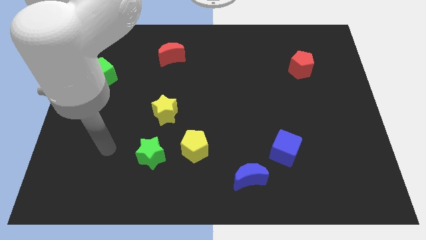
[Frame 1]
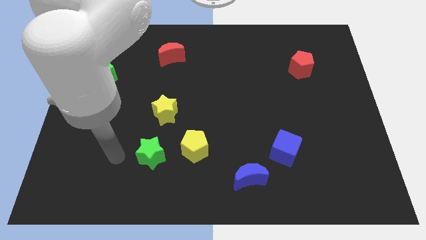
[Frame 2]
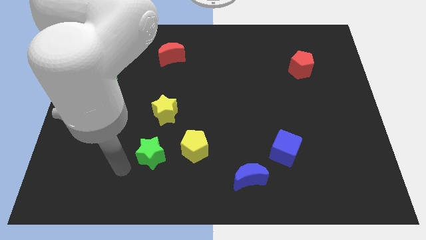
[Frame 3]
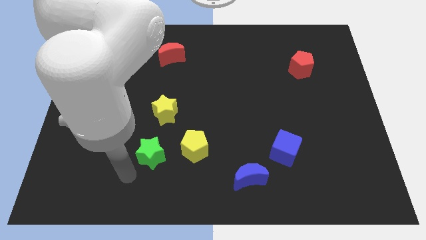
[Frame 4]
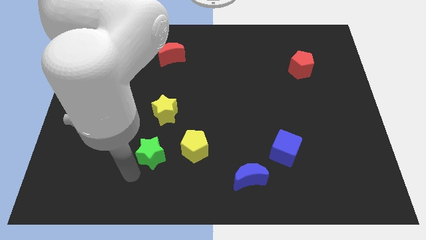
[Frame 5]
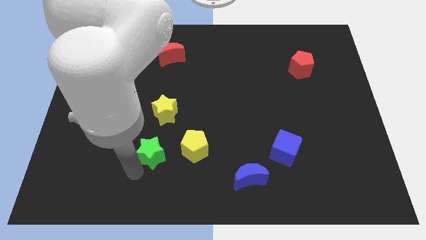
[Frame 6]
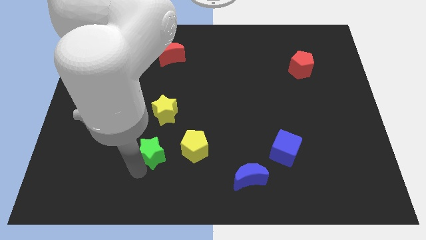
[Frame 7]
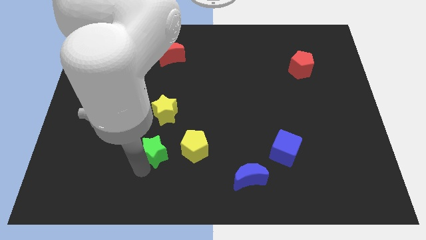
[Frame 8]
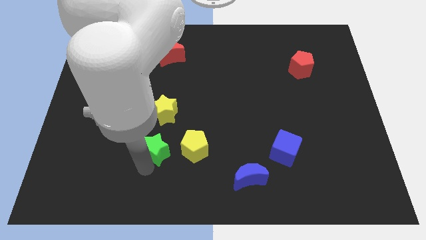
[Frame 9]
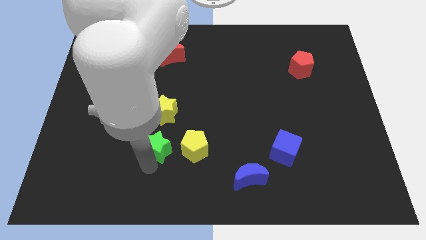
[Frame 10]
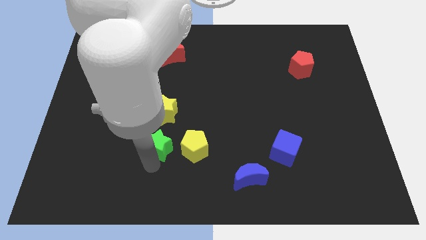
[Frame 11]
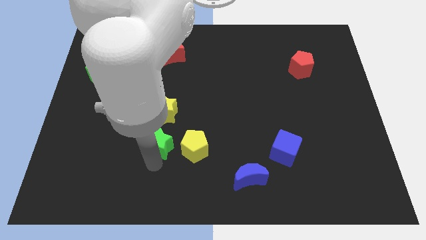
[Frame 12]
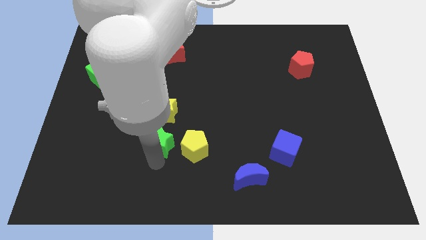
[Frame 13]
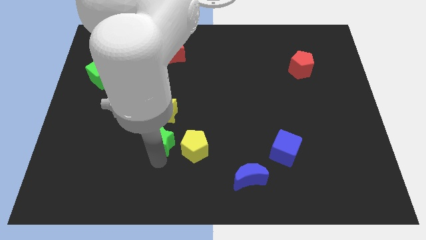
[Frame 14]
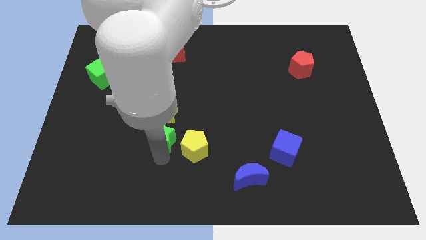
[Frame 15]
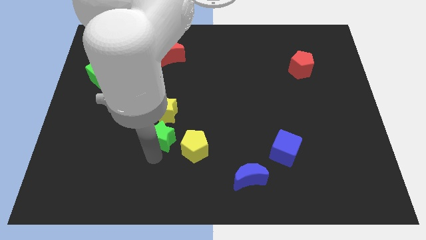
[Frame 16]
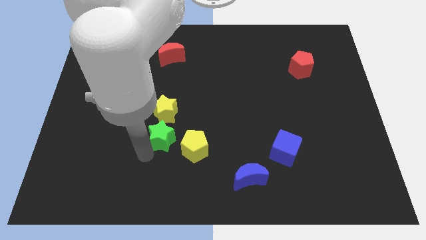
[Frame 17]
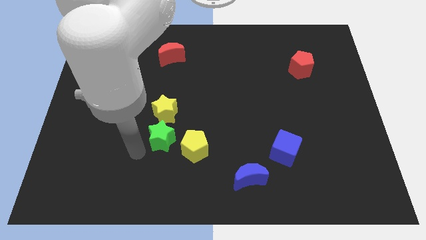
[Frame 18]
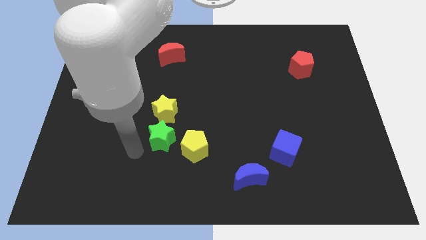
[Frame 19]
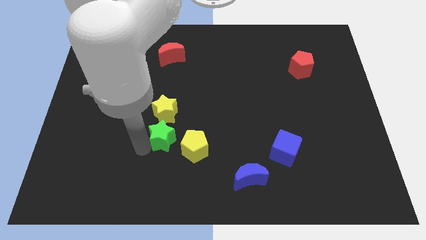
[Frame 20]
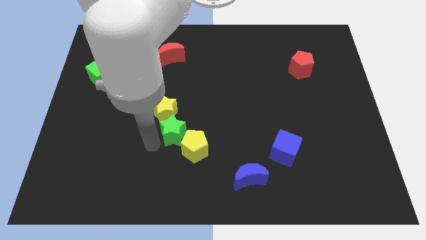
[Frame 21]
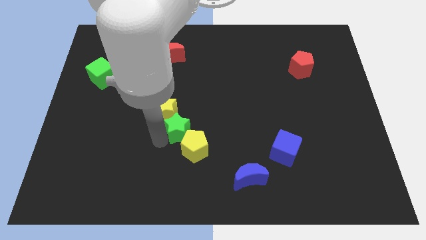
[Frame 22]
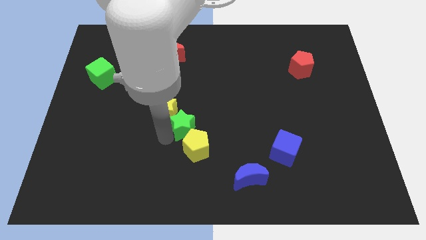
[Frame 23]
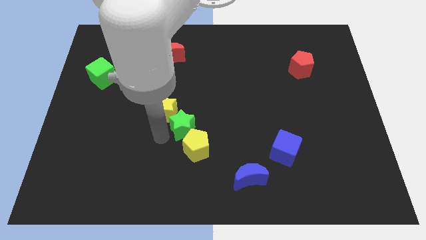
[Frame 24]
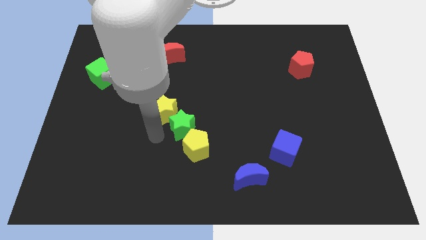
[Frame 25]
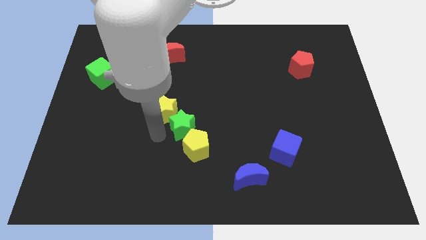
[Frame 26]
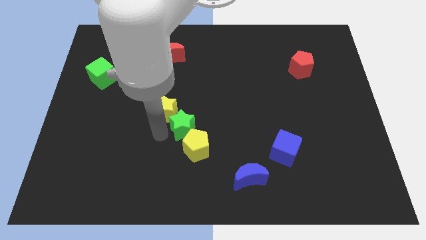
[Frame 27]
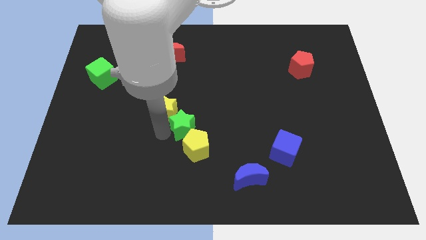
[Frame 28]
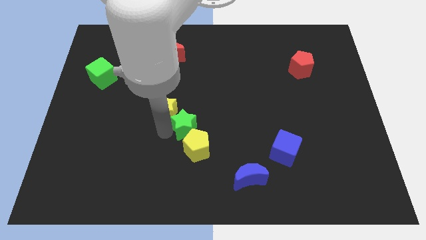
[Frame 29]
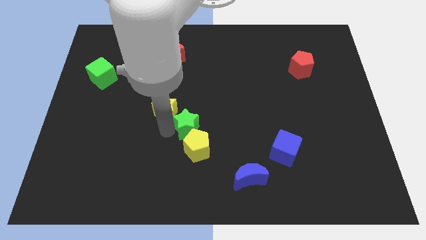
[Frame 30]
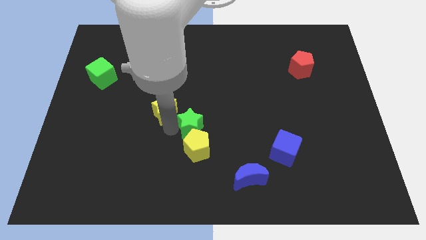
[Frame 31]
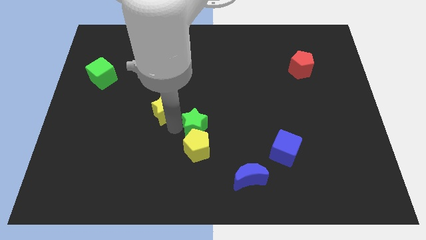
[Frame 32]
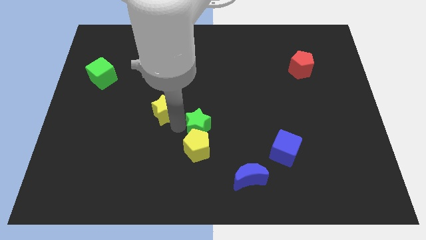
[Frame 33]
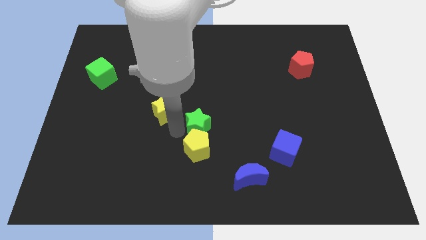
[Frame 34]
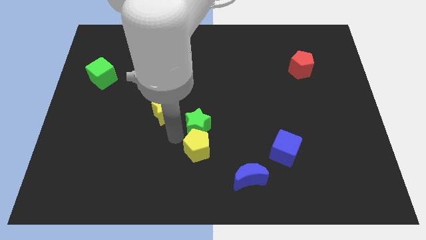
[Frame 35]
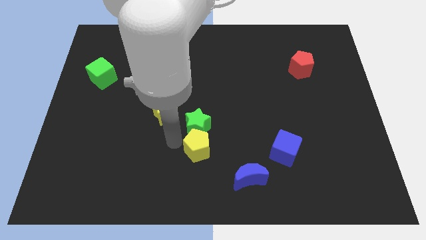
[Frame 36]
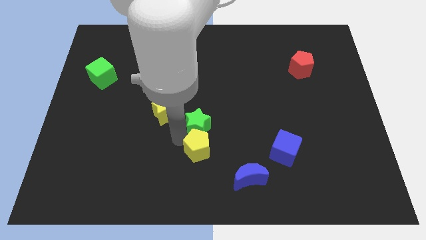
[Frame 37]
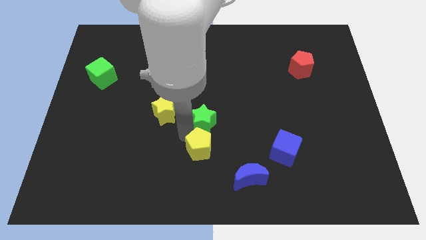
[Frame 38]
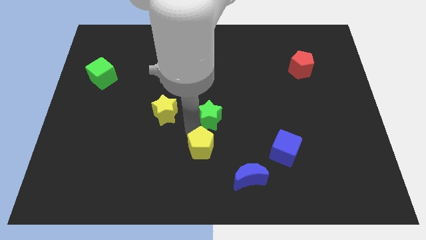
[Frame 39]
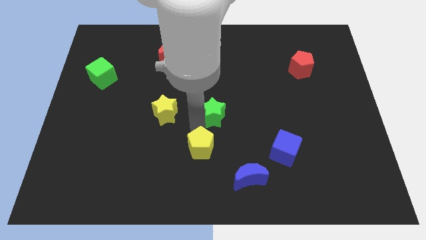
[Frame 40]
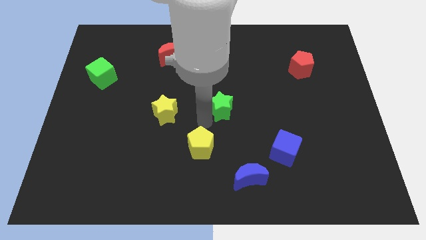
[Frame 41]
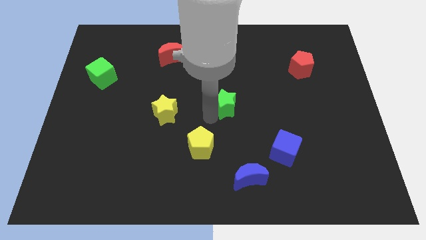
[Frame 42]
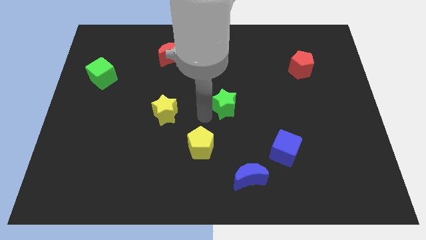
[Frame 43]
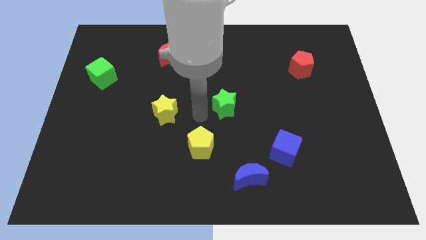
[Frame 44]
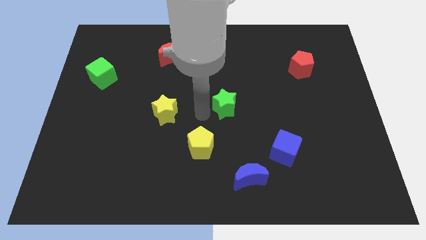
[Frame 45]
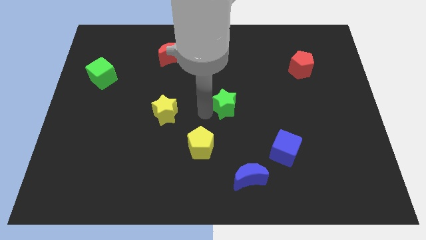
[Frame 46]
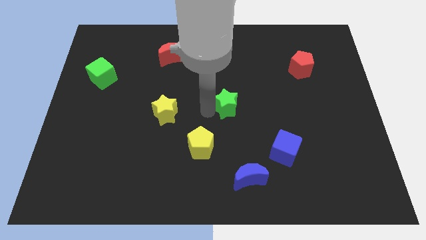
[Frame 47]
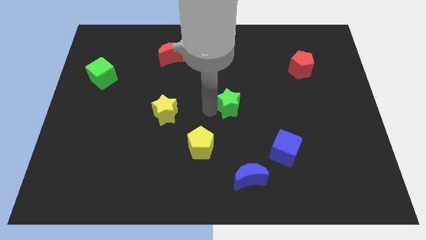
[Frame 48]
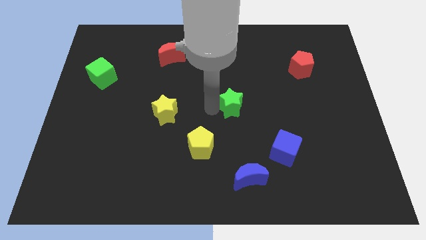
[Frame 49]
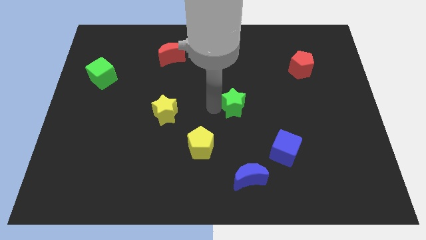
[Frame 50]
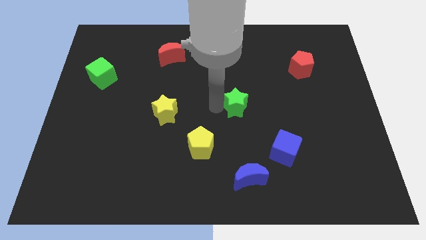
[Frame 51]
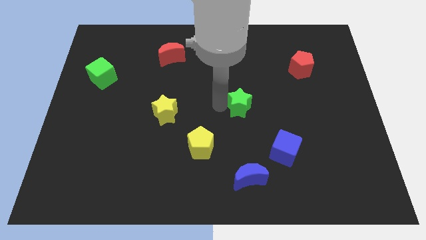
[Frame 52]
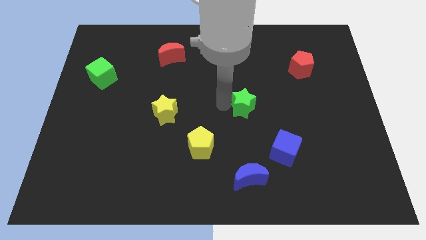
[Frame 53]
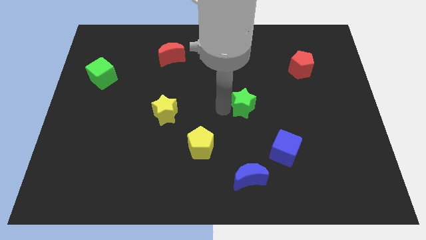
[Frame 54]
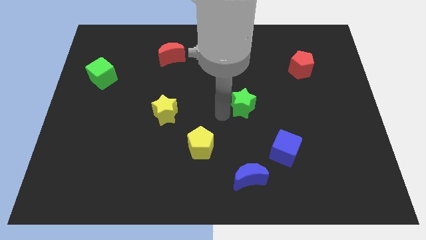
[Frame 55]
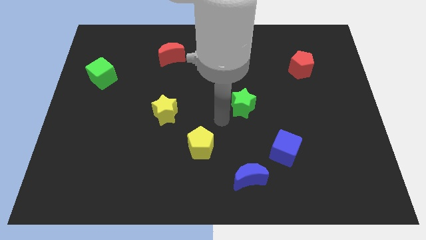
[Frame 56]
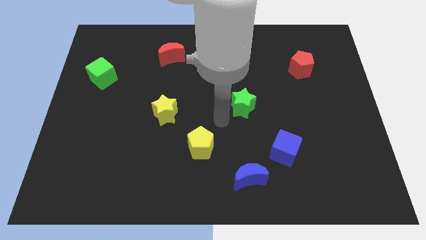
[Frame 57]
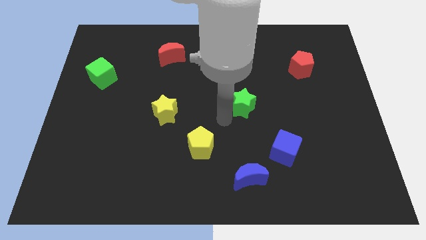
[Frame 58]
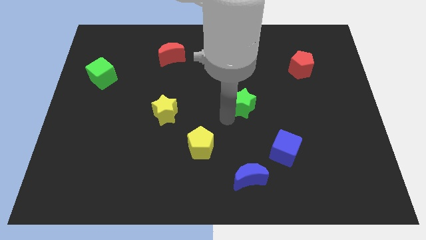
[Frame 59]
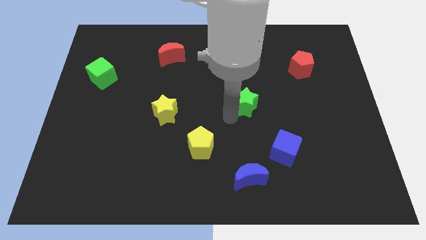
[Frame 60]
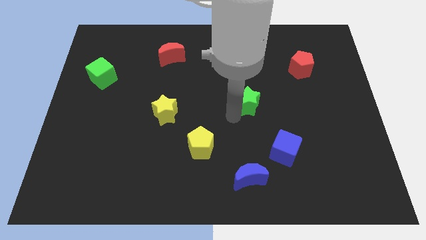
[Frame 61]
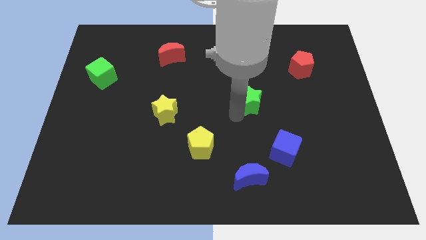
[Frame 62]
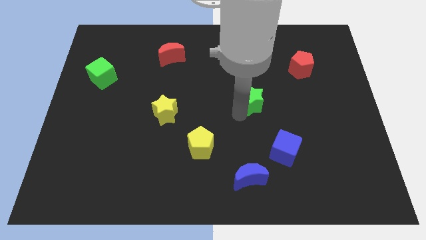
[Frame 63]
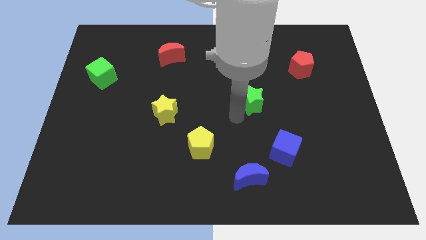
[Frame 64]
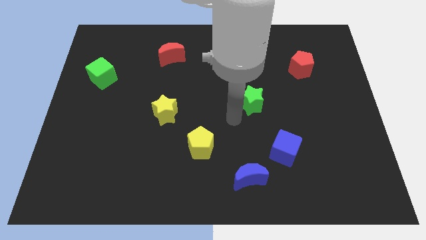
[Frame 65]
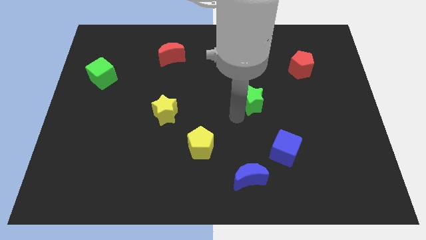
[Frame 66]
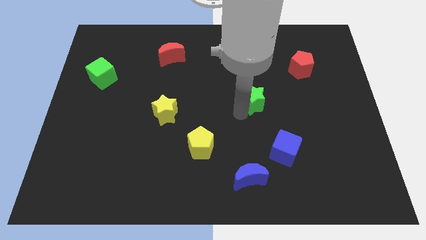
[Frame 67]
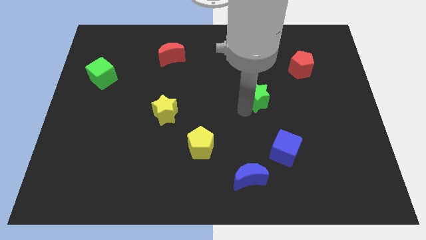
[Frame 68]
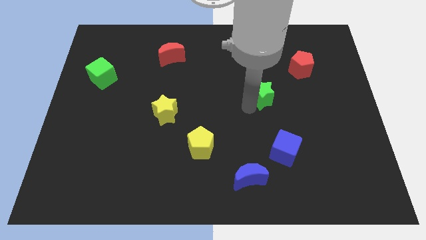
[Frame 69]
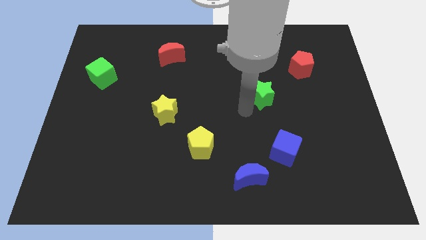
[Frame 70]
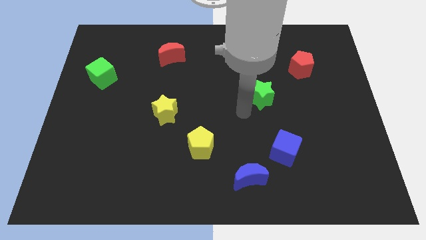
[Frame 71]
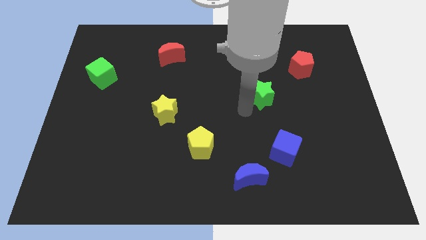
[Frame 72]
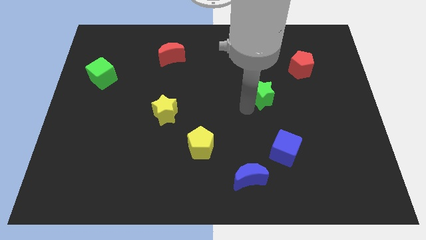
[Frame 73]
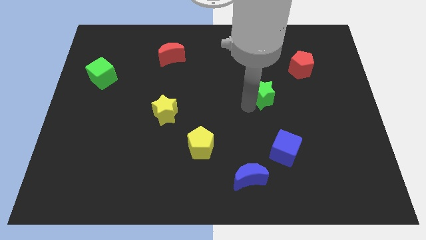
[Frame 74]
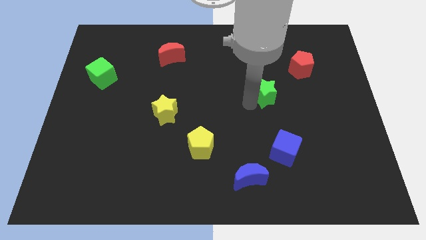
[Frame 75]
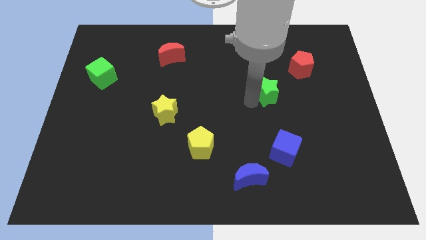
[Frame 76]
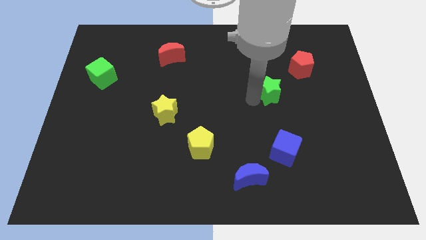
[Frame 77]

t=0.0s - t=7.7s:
push the green star diagonally down and to the left of the red pentagon

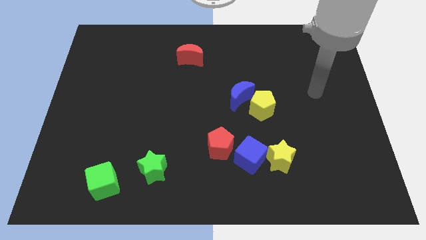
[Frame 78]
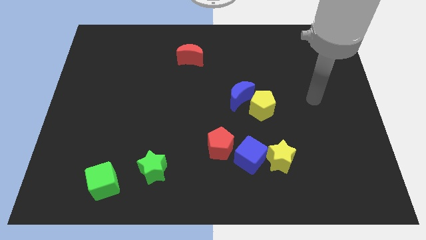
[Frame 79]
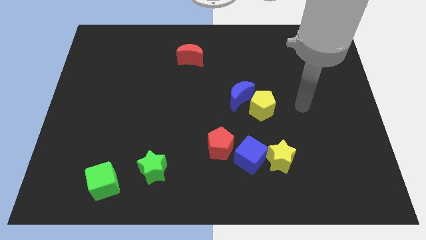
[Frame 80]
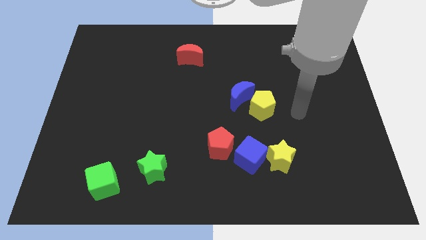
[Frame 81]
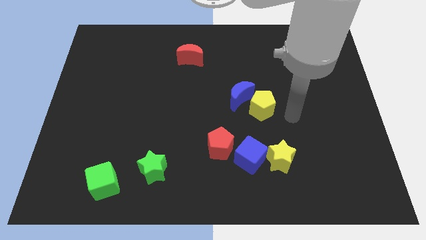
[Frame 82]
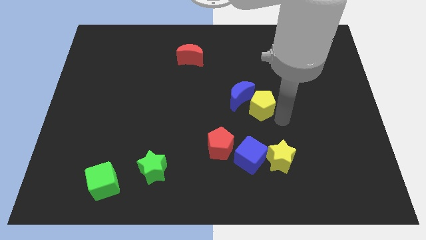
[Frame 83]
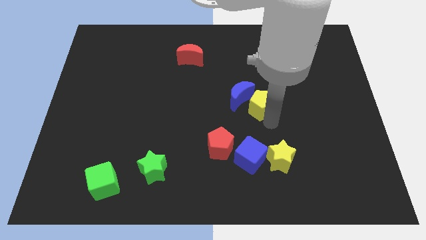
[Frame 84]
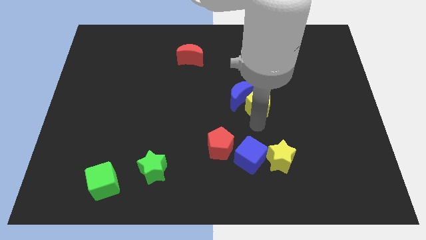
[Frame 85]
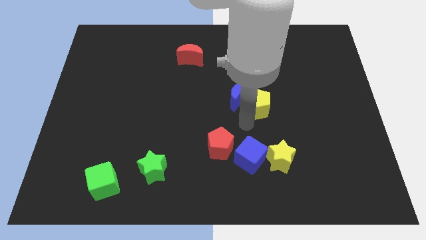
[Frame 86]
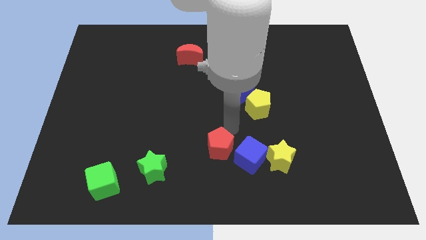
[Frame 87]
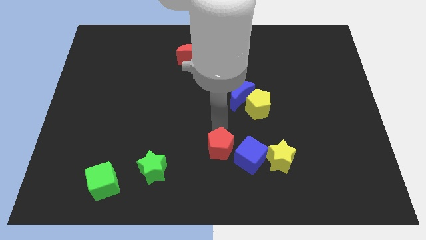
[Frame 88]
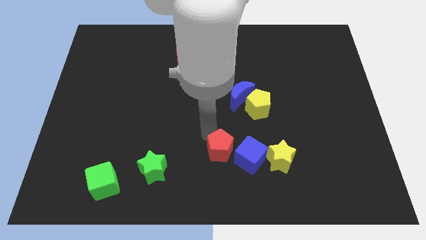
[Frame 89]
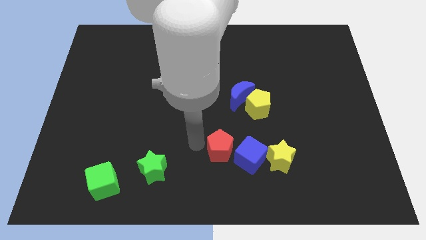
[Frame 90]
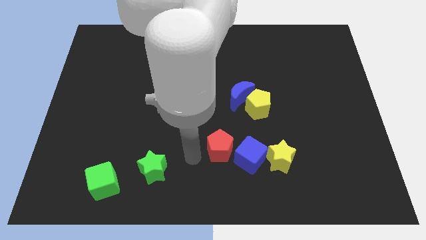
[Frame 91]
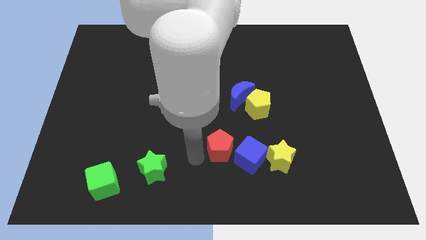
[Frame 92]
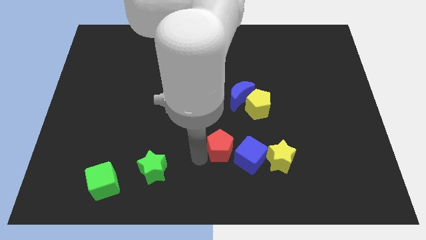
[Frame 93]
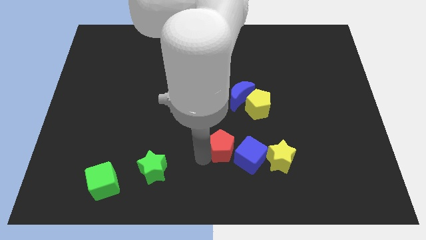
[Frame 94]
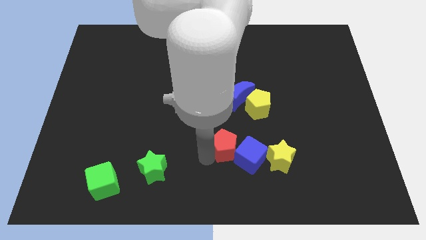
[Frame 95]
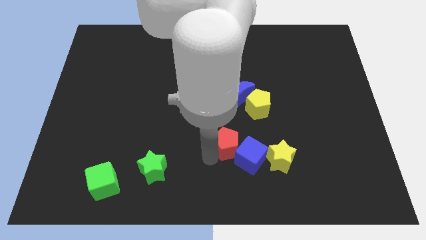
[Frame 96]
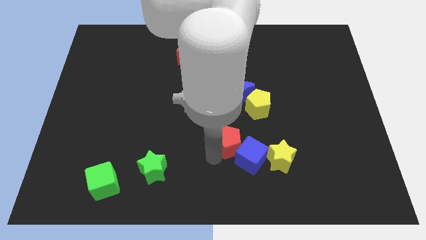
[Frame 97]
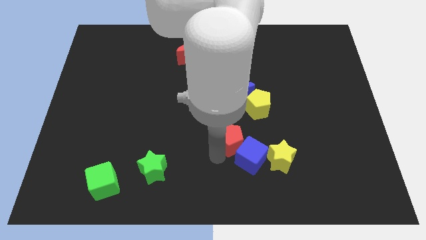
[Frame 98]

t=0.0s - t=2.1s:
slide the red pentagon to the top left of the yellow star
